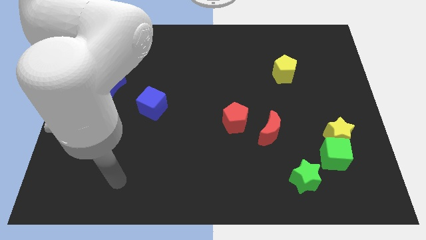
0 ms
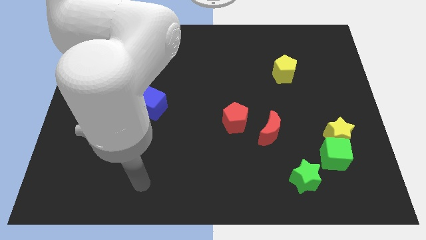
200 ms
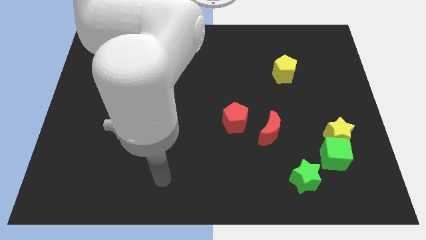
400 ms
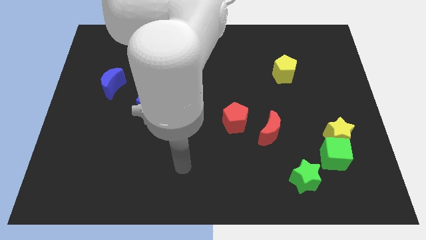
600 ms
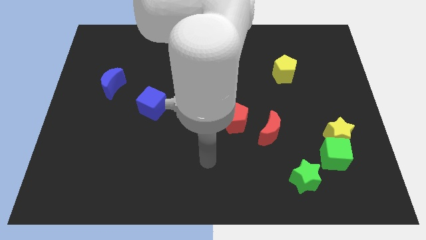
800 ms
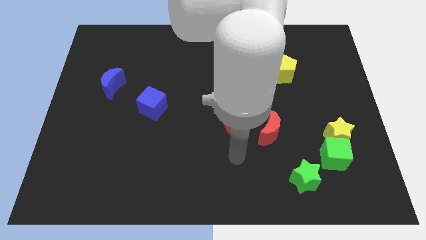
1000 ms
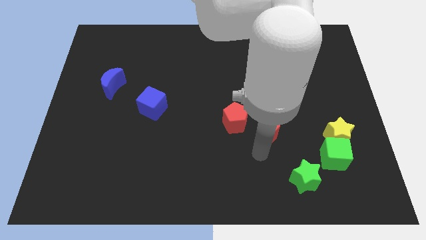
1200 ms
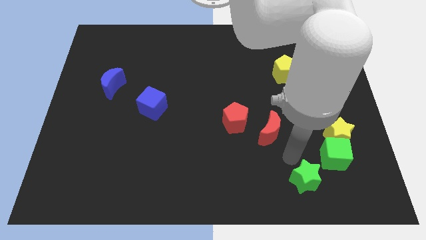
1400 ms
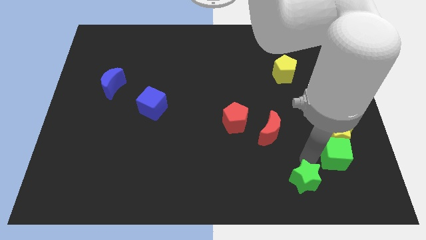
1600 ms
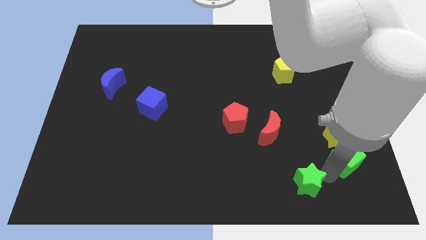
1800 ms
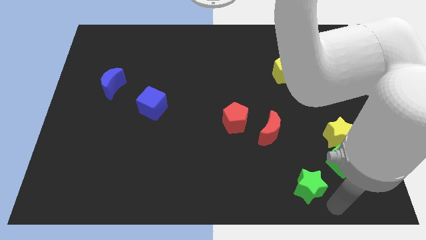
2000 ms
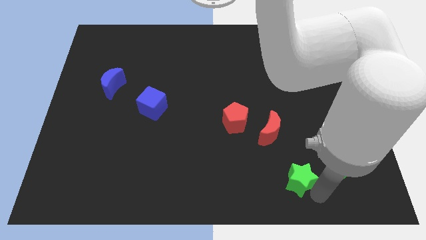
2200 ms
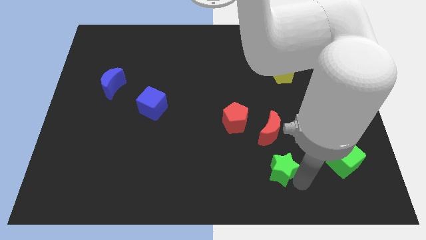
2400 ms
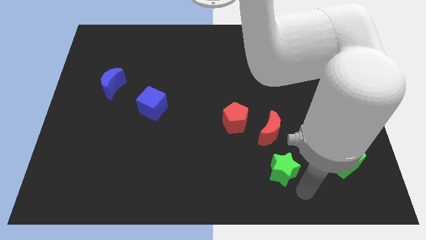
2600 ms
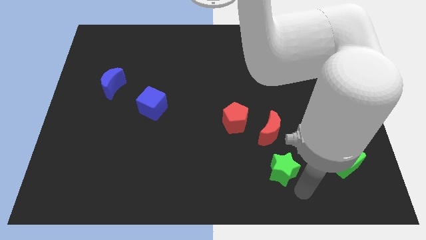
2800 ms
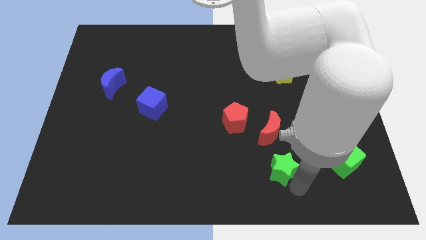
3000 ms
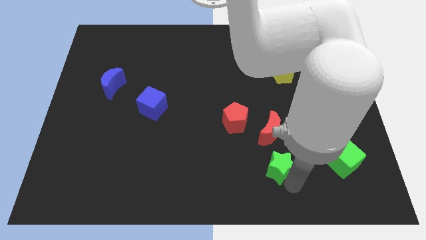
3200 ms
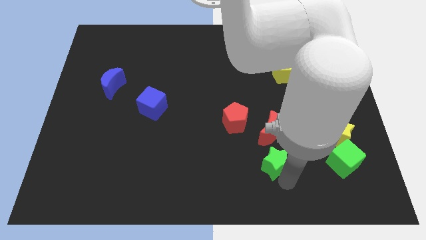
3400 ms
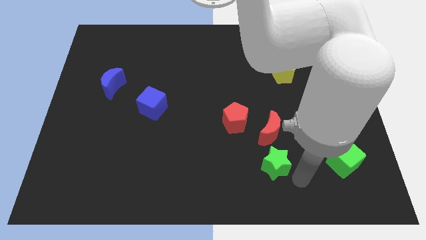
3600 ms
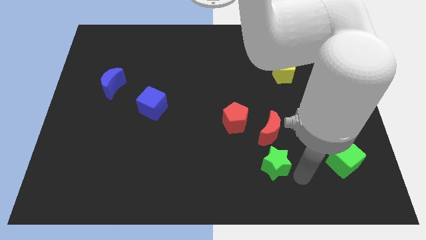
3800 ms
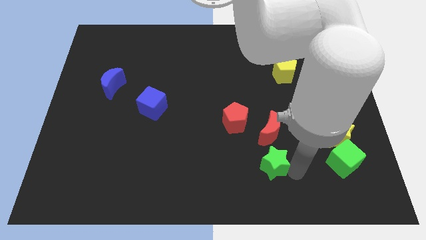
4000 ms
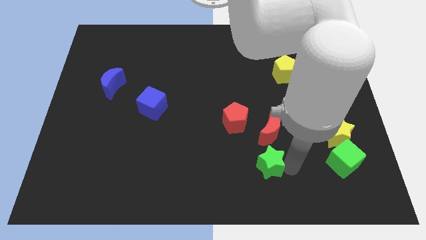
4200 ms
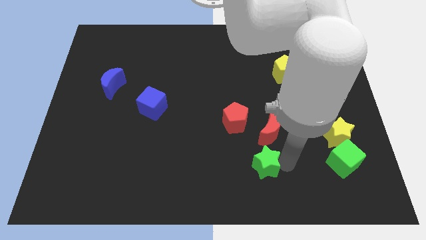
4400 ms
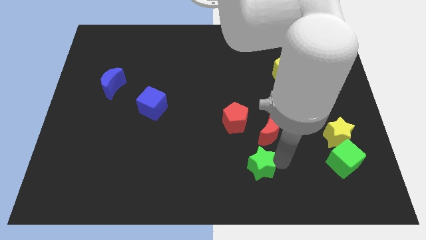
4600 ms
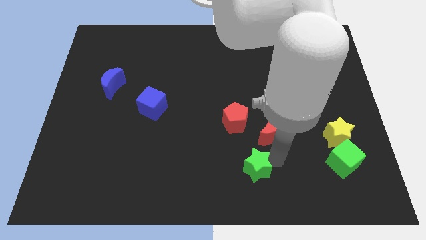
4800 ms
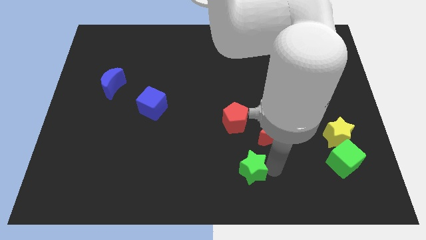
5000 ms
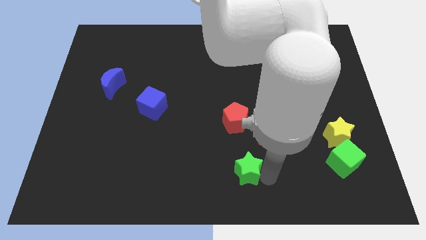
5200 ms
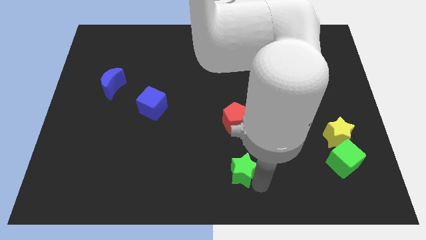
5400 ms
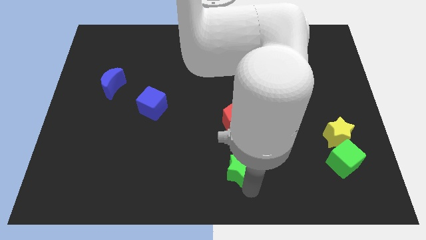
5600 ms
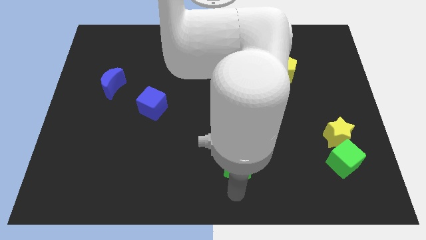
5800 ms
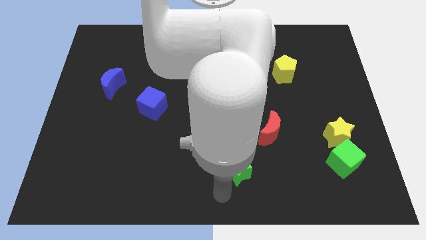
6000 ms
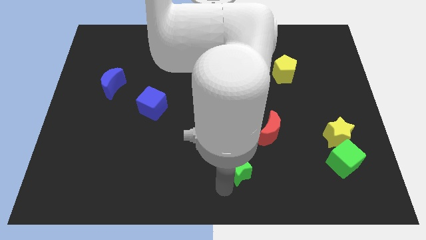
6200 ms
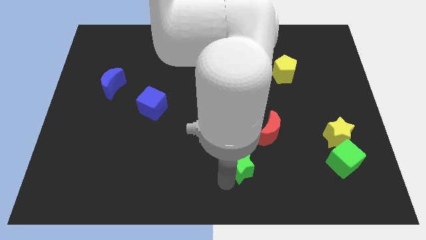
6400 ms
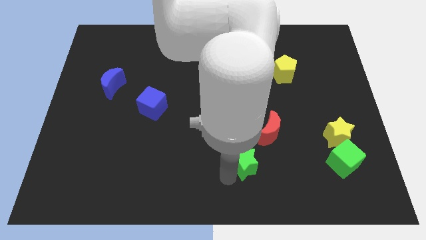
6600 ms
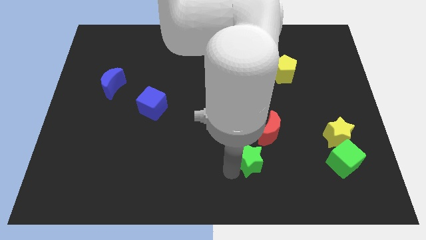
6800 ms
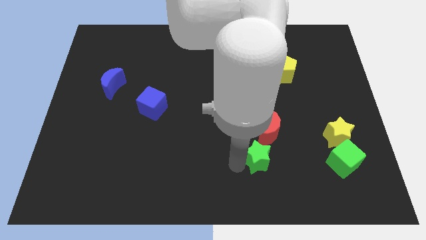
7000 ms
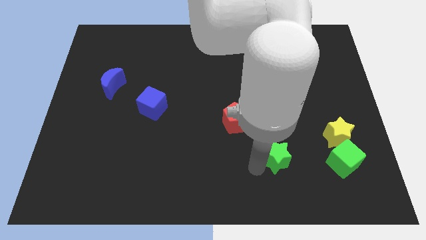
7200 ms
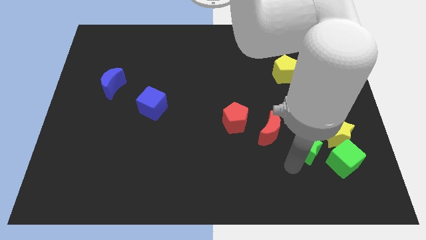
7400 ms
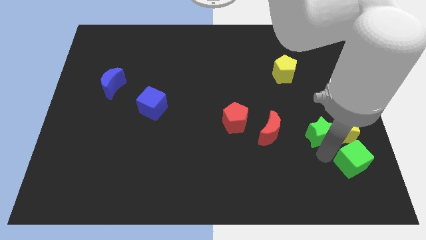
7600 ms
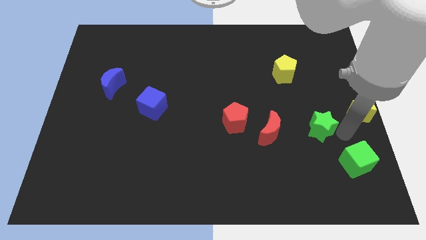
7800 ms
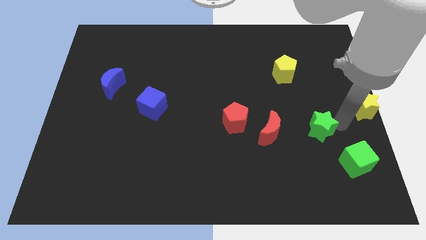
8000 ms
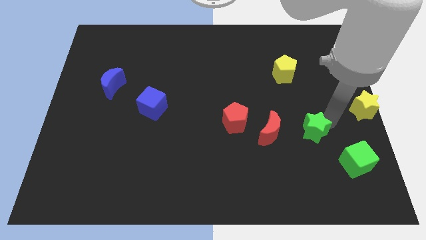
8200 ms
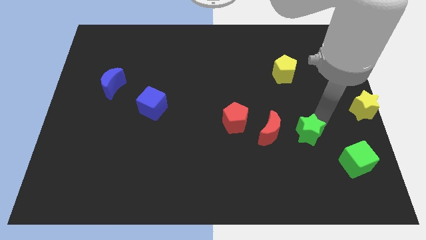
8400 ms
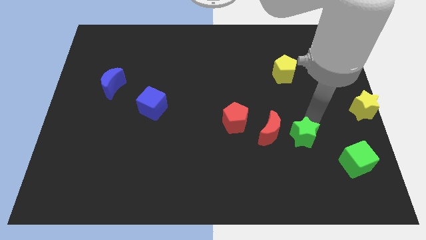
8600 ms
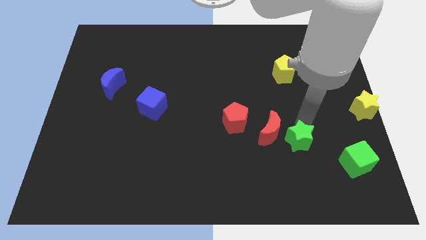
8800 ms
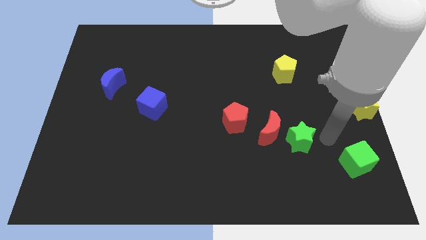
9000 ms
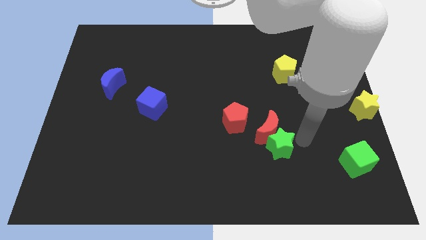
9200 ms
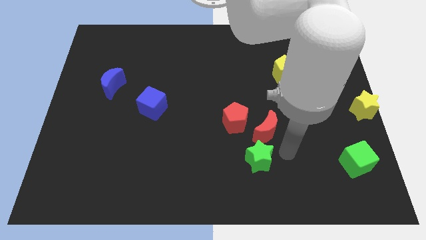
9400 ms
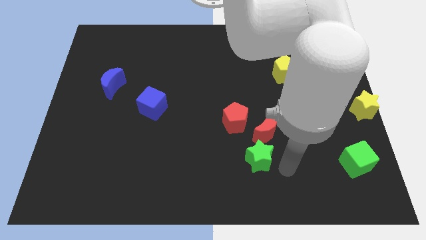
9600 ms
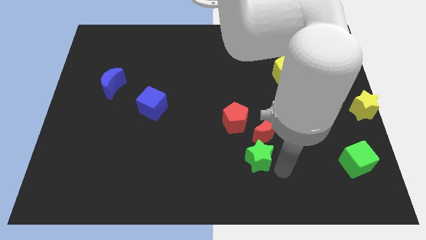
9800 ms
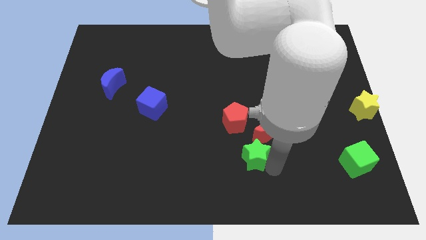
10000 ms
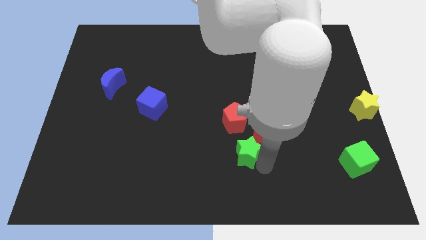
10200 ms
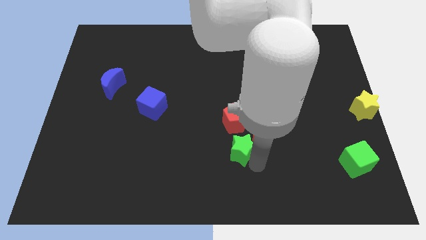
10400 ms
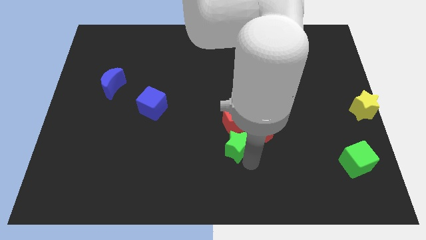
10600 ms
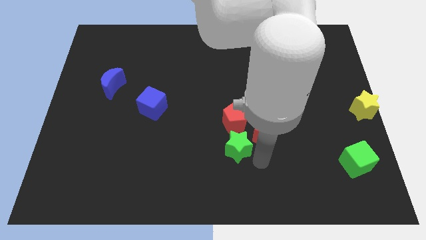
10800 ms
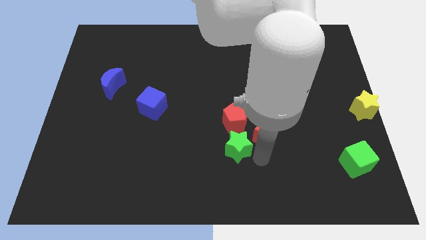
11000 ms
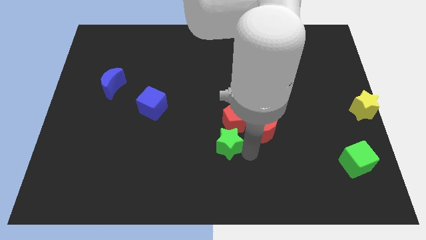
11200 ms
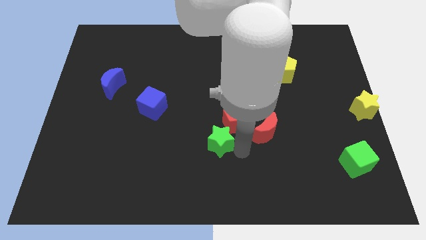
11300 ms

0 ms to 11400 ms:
slide the green star to the middle of the board

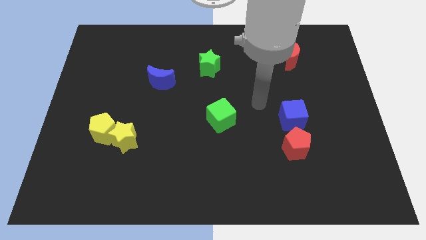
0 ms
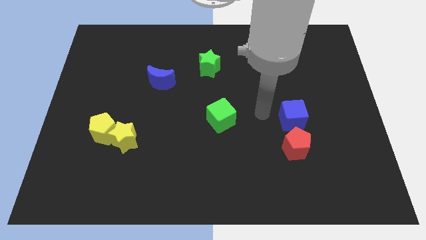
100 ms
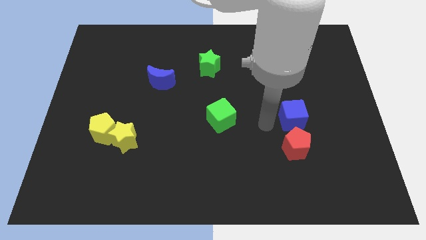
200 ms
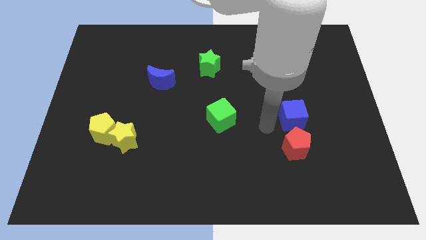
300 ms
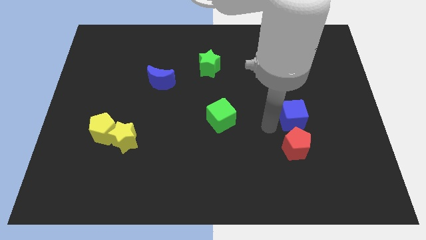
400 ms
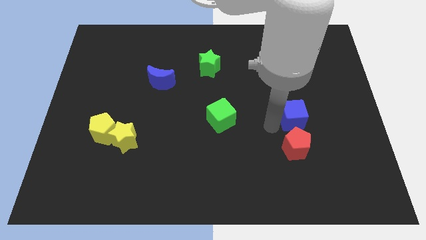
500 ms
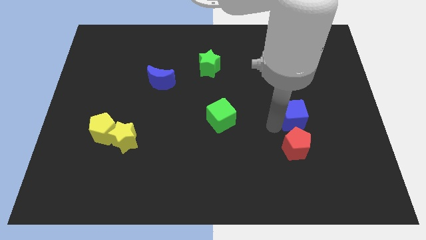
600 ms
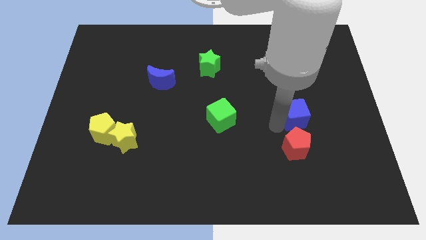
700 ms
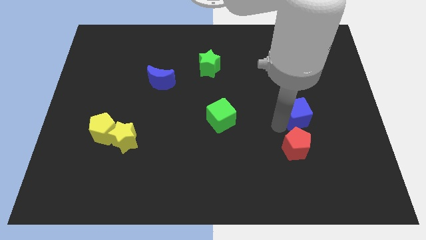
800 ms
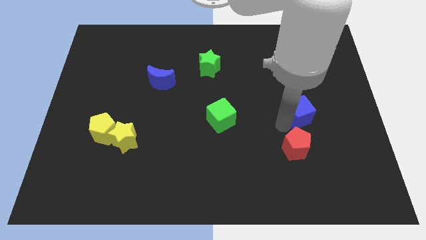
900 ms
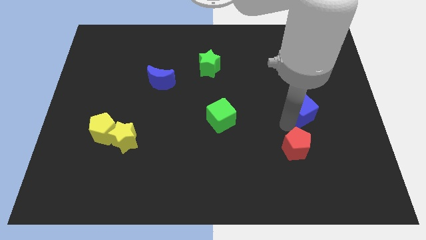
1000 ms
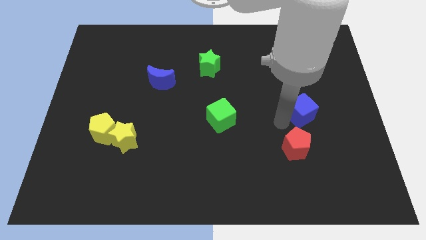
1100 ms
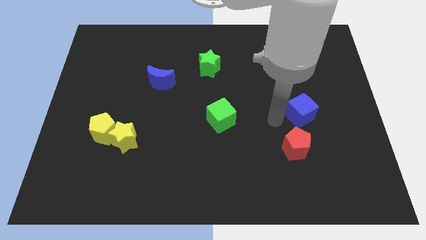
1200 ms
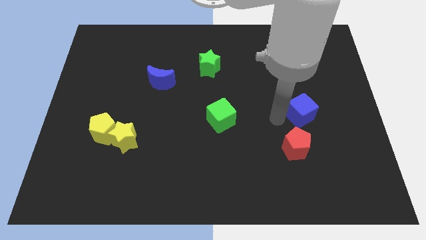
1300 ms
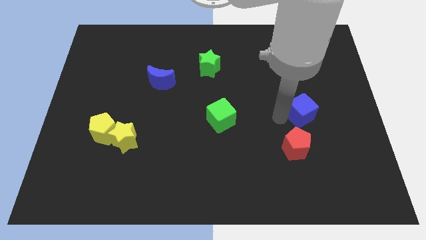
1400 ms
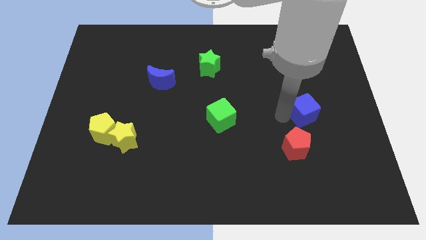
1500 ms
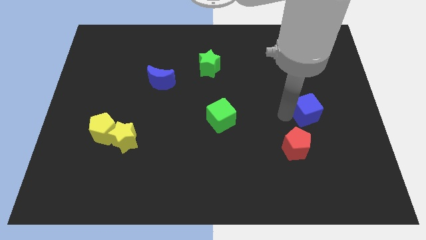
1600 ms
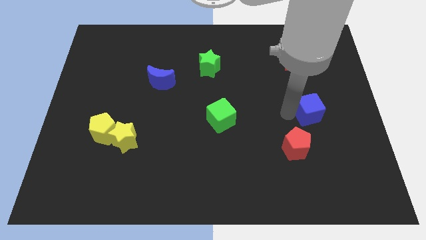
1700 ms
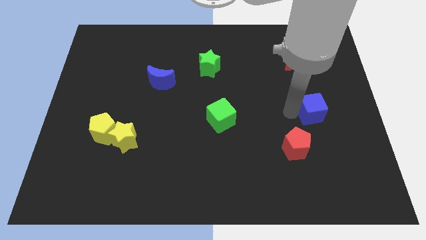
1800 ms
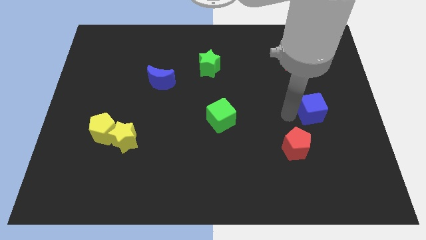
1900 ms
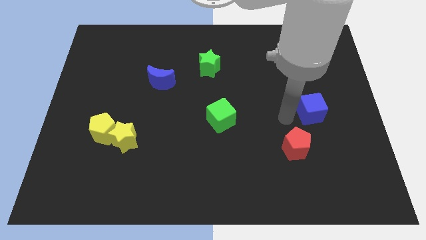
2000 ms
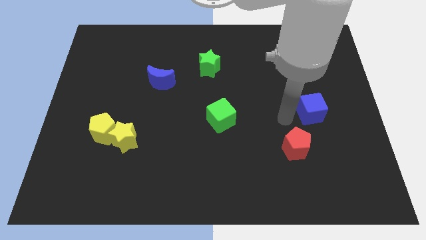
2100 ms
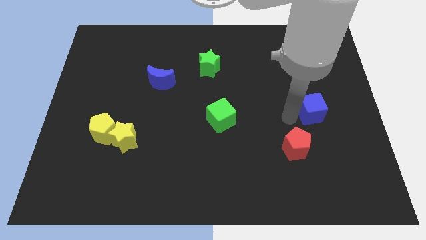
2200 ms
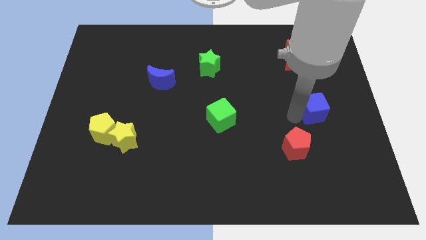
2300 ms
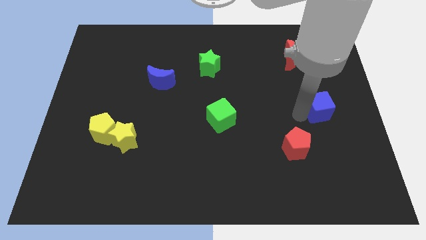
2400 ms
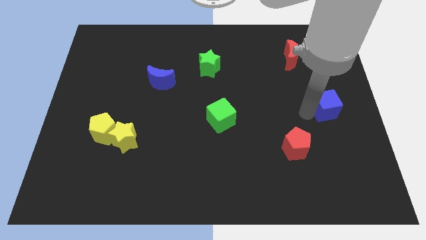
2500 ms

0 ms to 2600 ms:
put the blue cube to the right side
